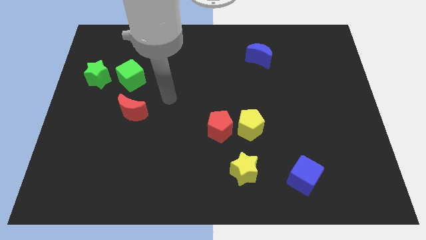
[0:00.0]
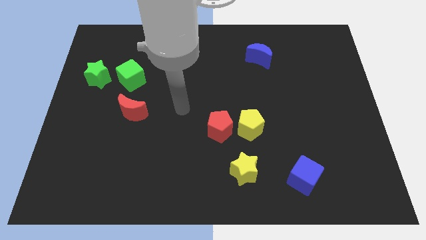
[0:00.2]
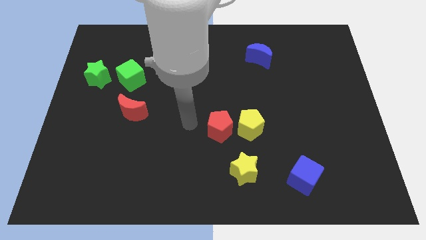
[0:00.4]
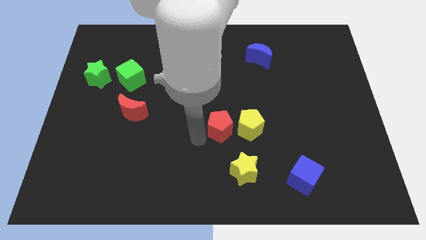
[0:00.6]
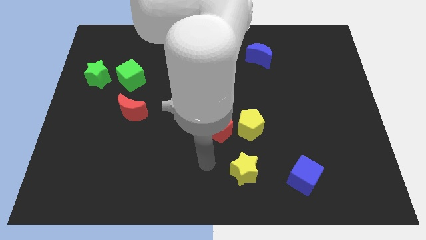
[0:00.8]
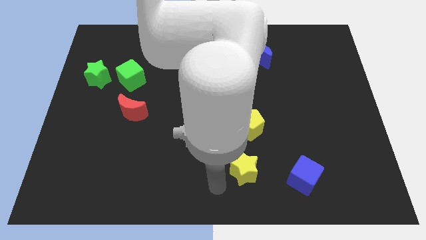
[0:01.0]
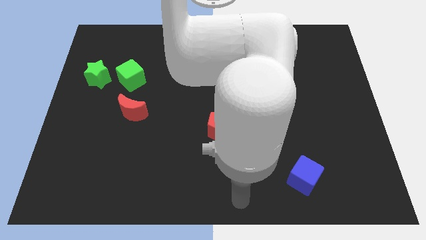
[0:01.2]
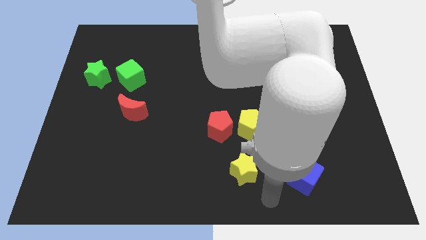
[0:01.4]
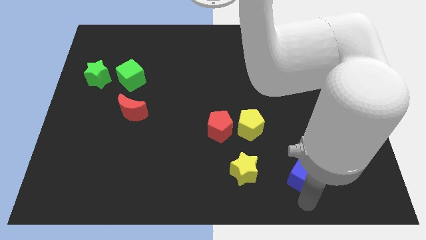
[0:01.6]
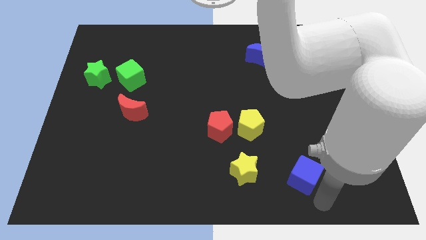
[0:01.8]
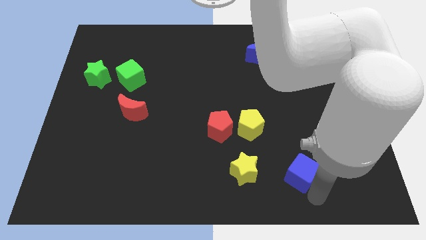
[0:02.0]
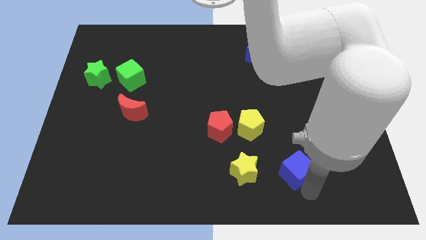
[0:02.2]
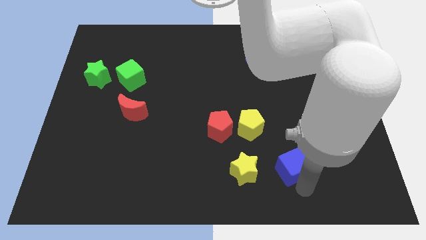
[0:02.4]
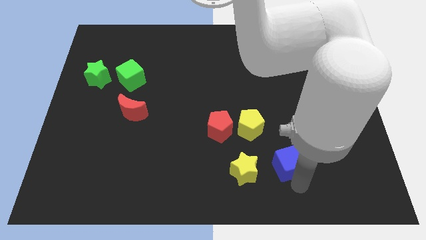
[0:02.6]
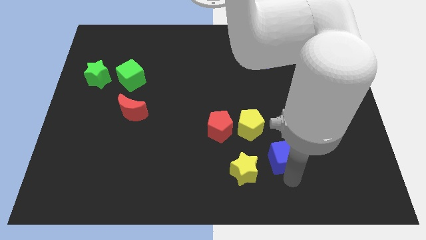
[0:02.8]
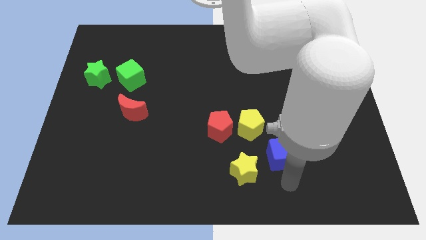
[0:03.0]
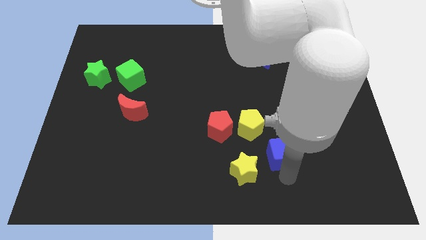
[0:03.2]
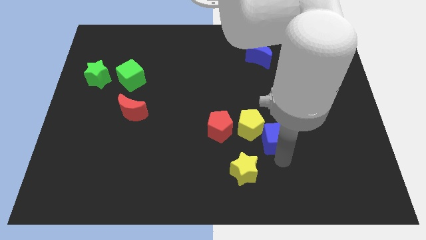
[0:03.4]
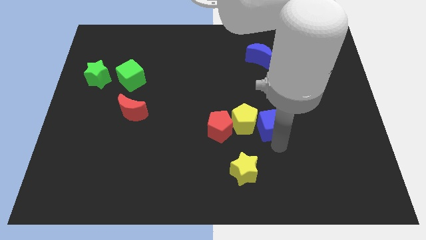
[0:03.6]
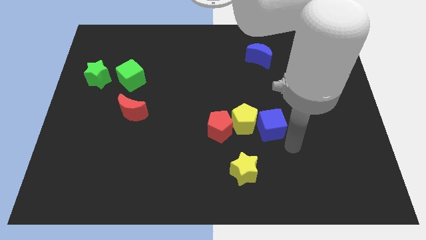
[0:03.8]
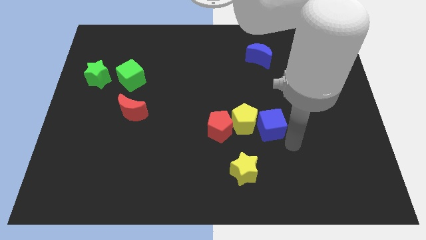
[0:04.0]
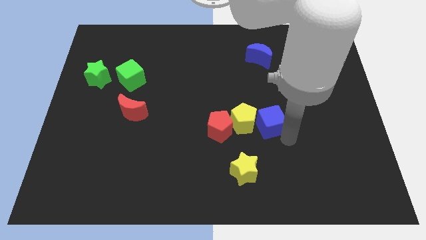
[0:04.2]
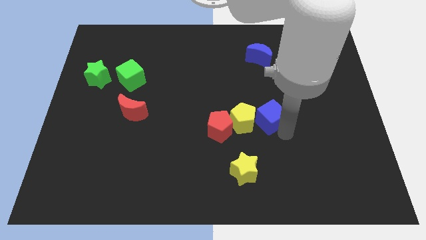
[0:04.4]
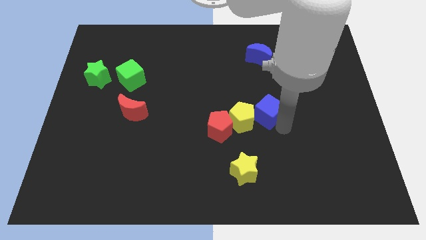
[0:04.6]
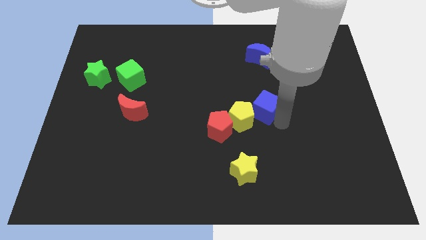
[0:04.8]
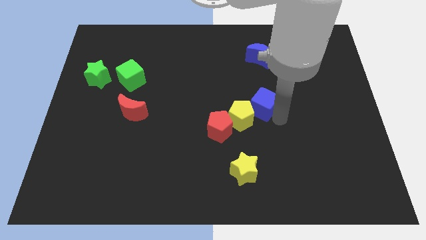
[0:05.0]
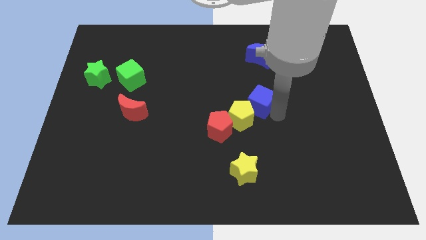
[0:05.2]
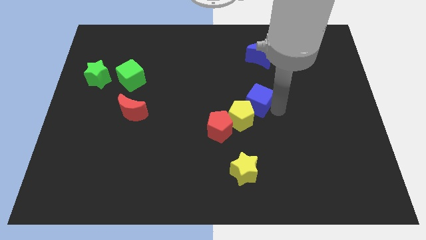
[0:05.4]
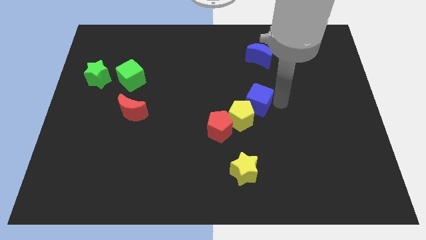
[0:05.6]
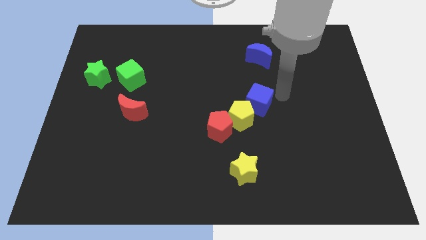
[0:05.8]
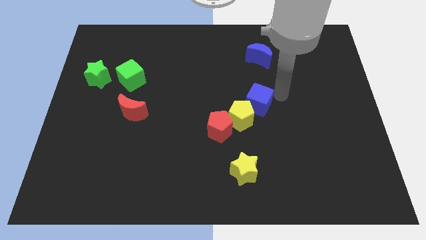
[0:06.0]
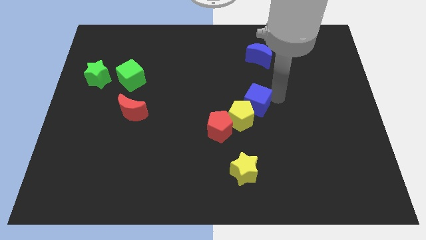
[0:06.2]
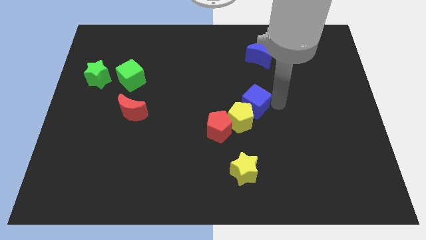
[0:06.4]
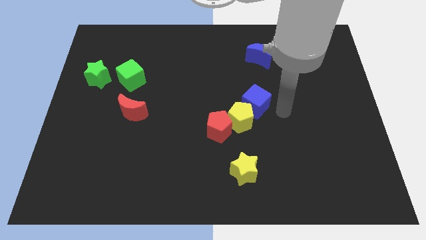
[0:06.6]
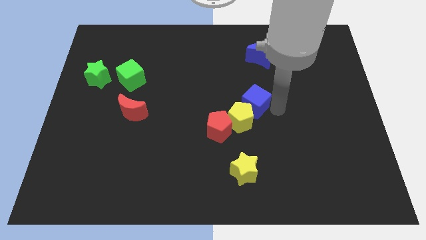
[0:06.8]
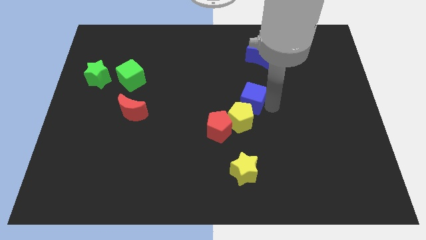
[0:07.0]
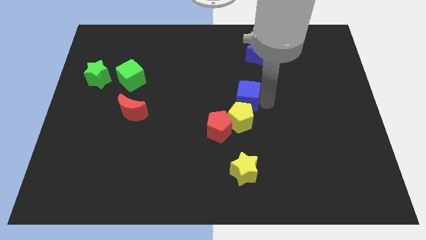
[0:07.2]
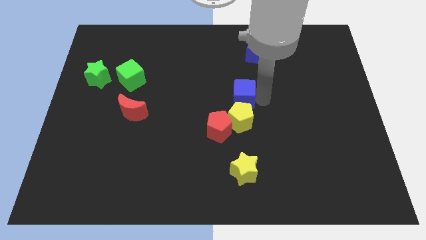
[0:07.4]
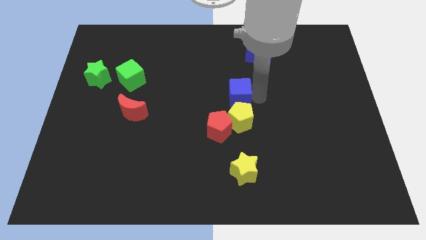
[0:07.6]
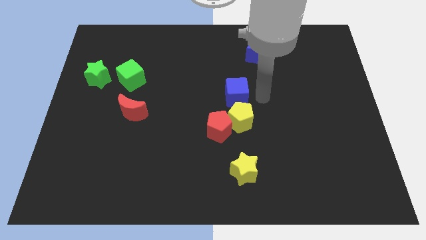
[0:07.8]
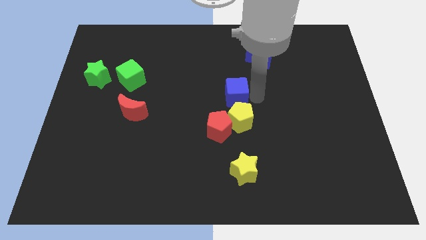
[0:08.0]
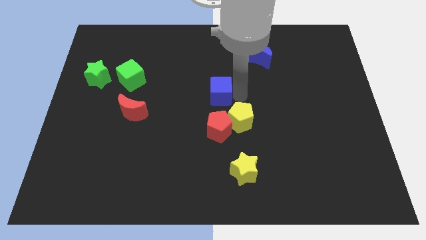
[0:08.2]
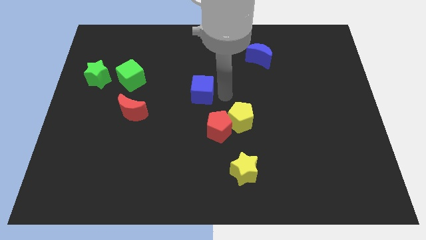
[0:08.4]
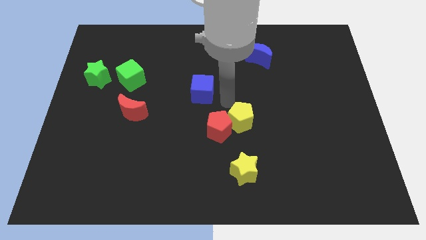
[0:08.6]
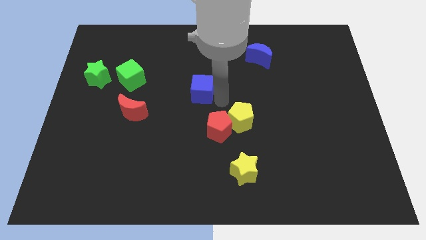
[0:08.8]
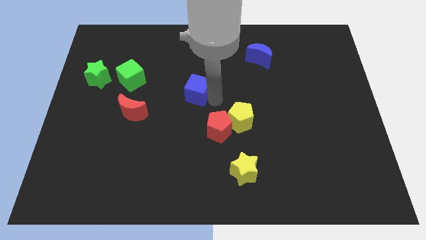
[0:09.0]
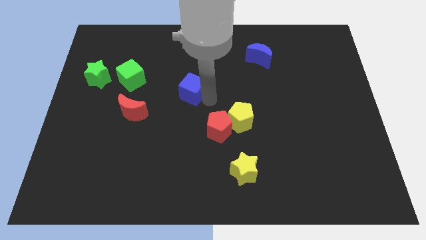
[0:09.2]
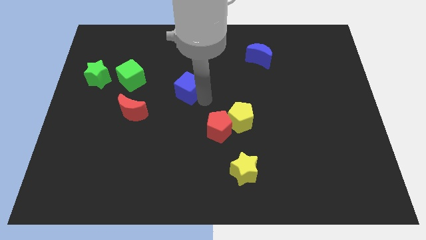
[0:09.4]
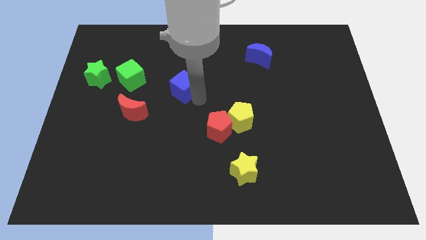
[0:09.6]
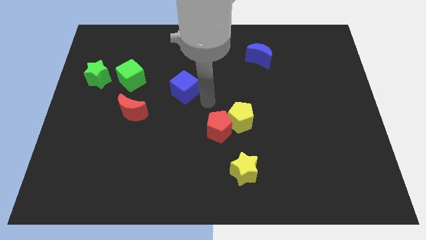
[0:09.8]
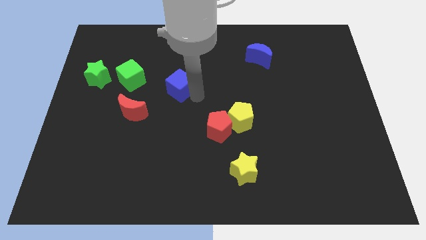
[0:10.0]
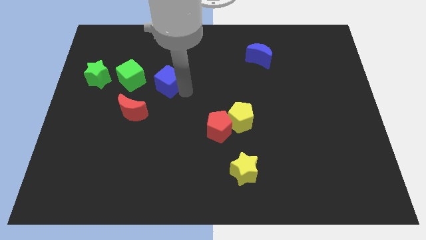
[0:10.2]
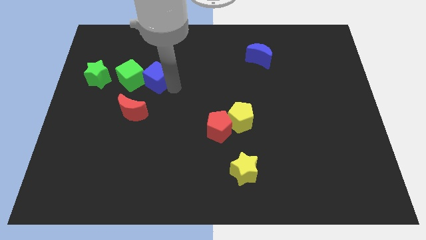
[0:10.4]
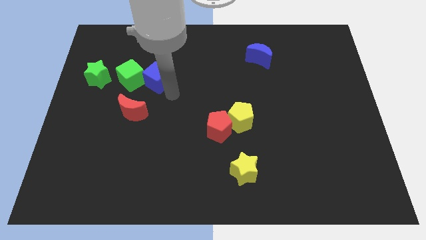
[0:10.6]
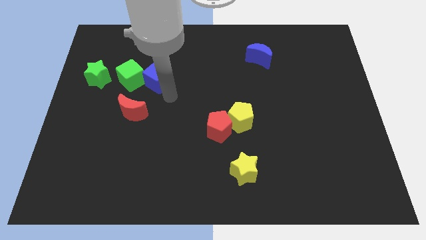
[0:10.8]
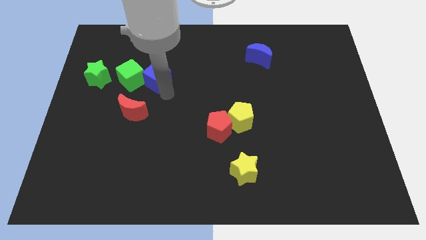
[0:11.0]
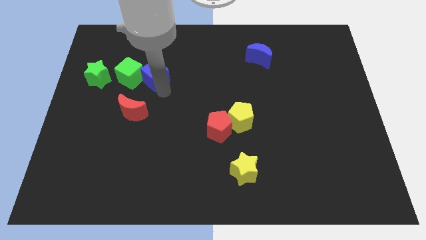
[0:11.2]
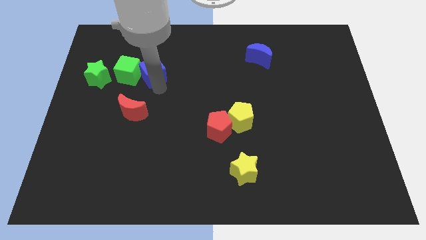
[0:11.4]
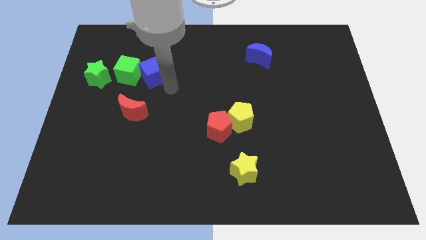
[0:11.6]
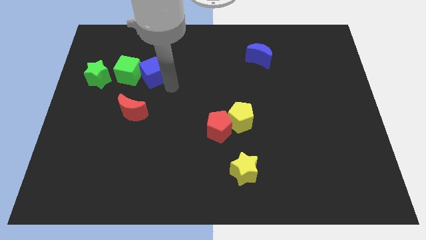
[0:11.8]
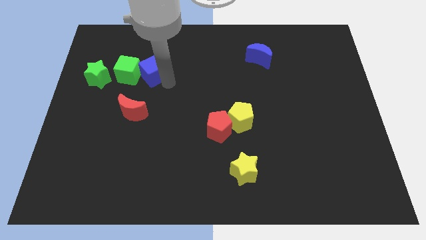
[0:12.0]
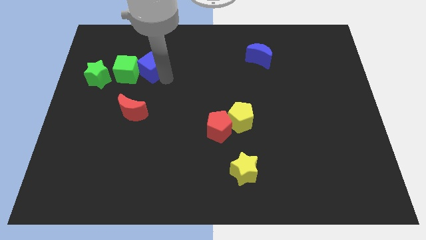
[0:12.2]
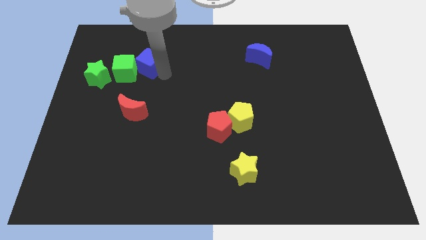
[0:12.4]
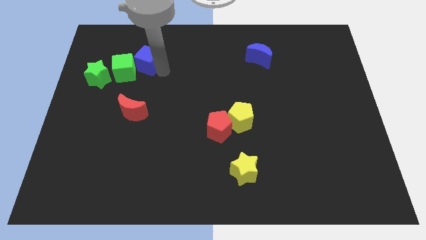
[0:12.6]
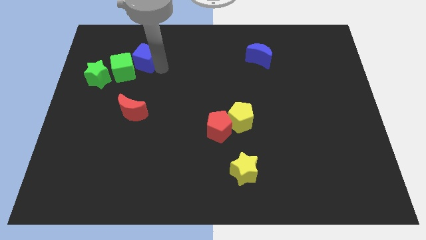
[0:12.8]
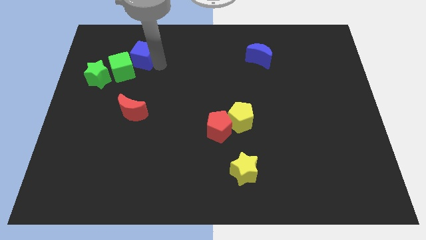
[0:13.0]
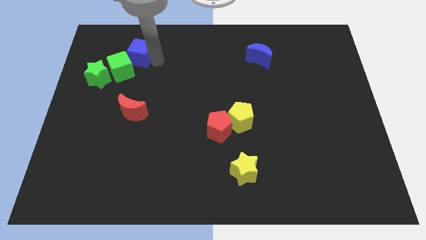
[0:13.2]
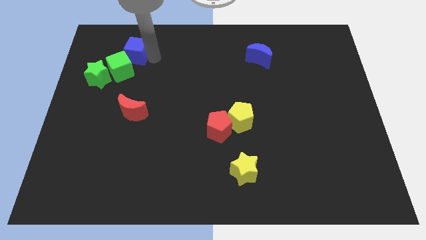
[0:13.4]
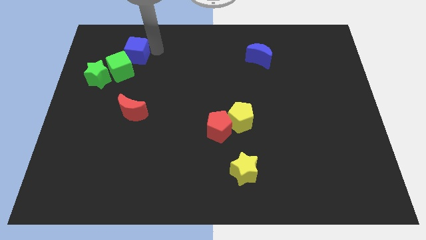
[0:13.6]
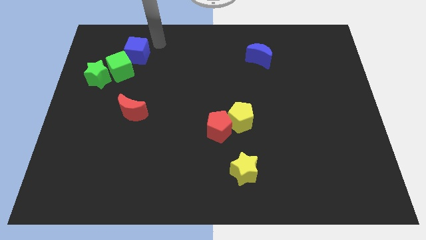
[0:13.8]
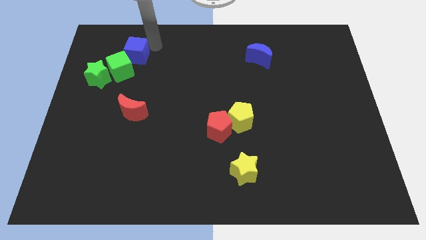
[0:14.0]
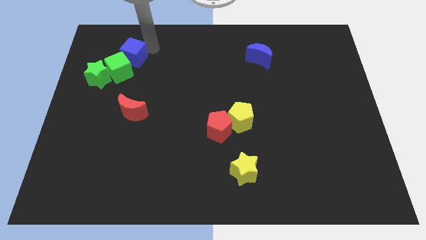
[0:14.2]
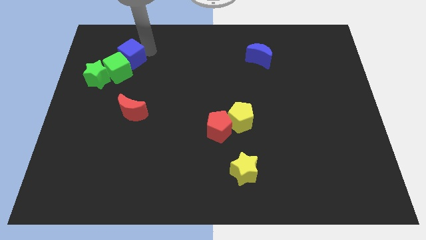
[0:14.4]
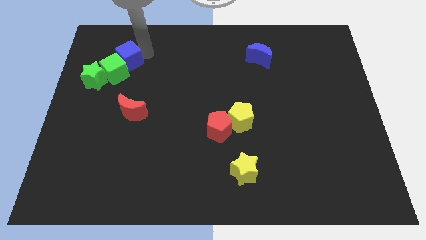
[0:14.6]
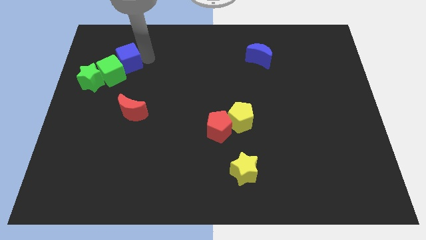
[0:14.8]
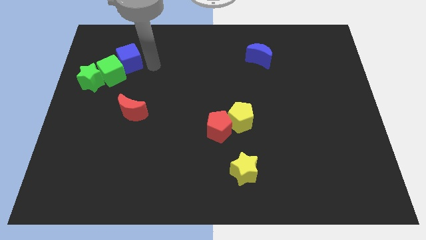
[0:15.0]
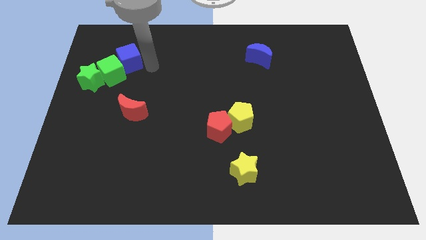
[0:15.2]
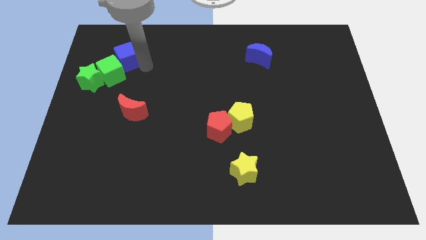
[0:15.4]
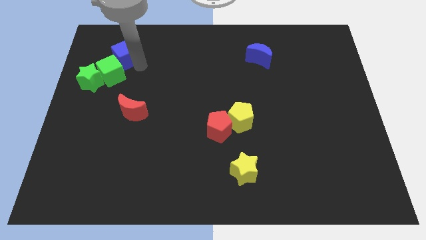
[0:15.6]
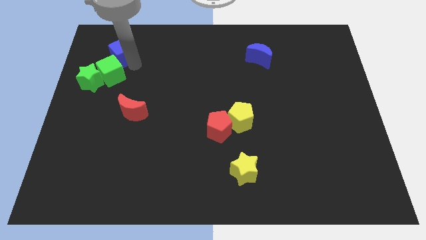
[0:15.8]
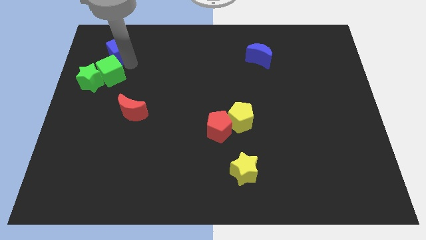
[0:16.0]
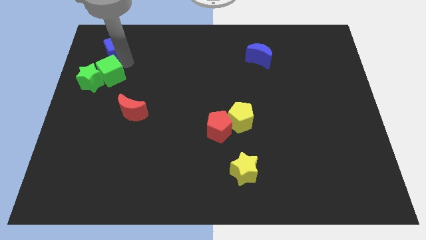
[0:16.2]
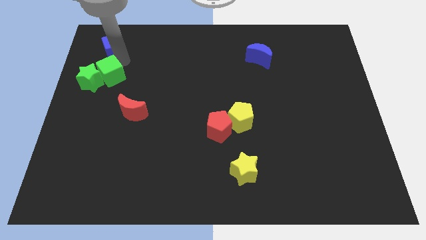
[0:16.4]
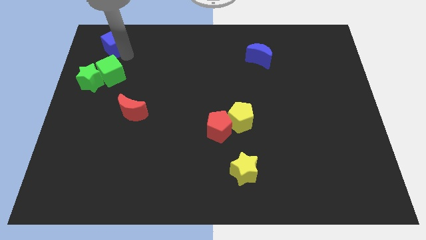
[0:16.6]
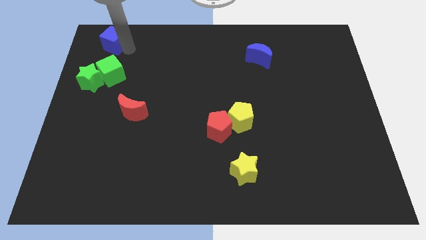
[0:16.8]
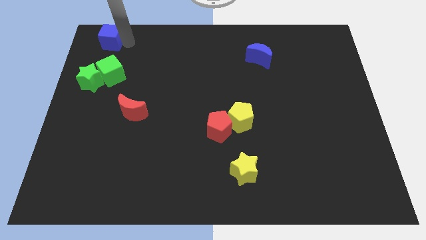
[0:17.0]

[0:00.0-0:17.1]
put the blue cube to the top left
